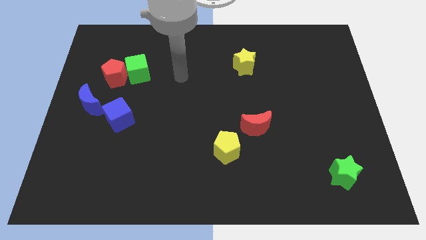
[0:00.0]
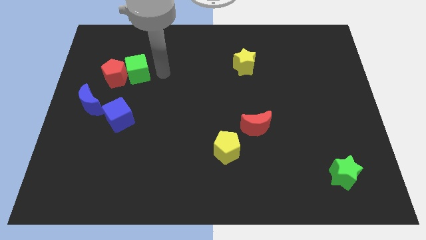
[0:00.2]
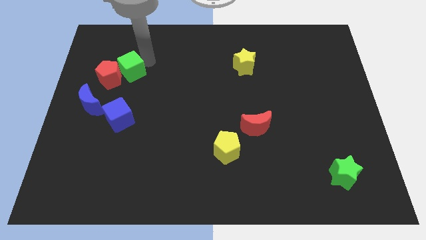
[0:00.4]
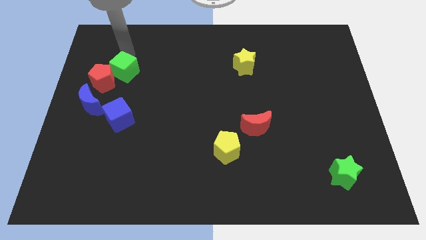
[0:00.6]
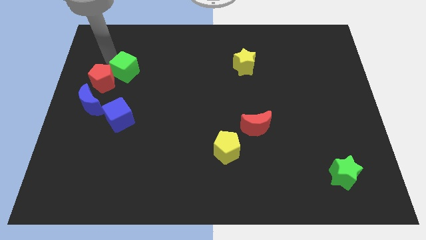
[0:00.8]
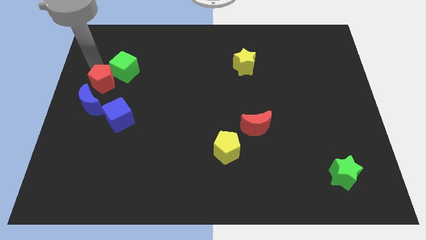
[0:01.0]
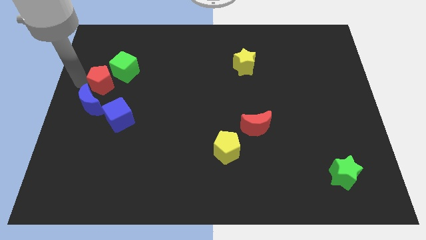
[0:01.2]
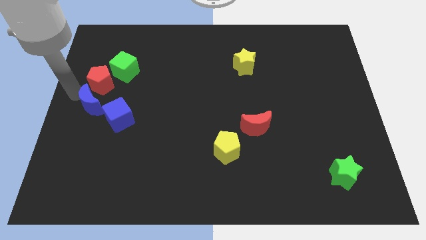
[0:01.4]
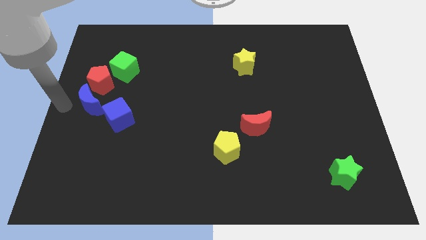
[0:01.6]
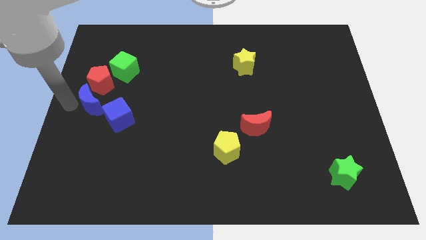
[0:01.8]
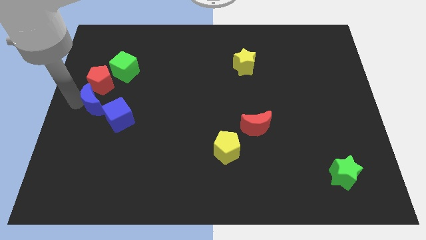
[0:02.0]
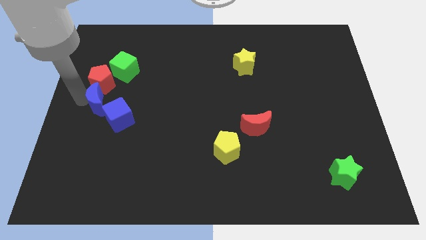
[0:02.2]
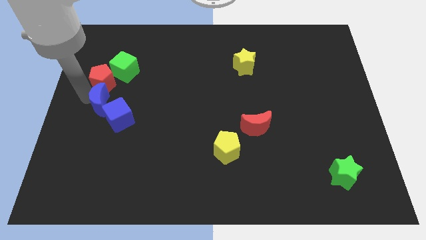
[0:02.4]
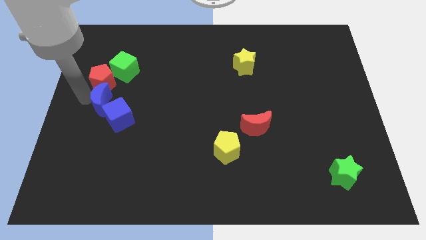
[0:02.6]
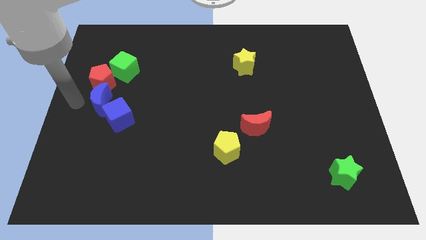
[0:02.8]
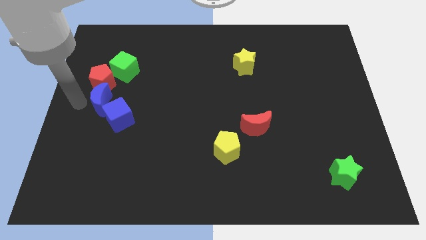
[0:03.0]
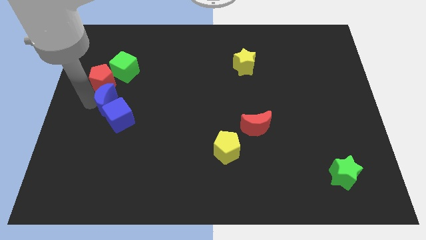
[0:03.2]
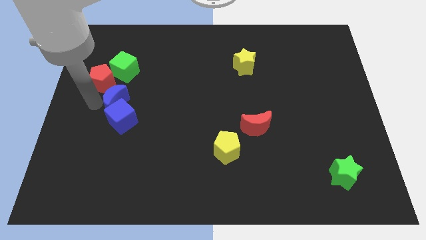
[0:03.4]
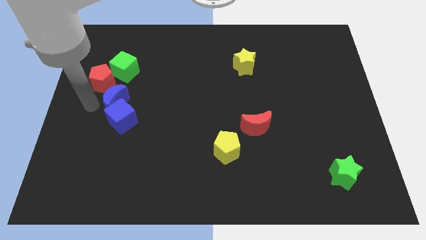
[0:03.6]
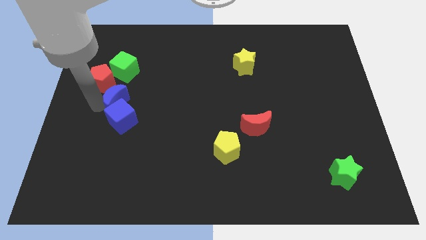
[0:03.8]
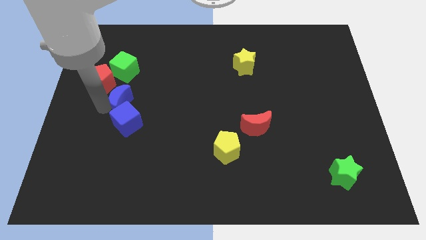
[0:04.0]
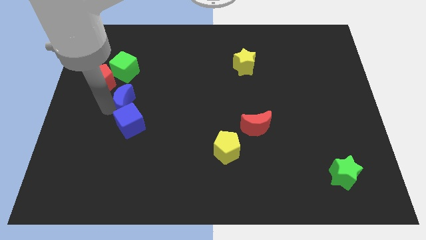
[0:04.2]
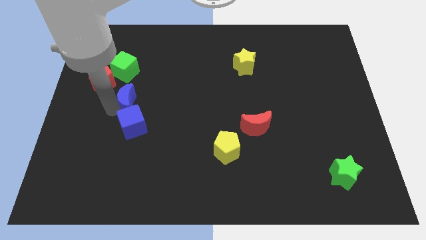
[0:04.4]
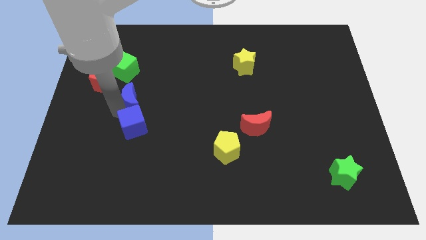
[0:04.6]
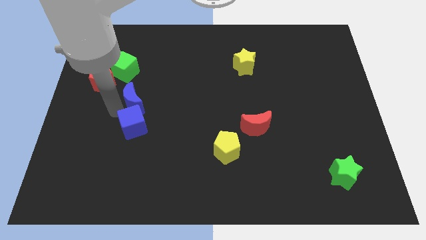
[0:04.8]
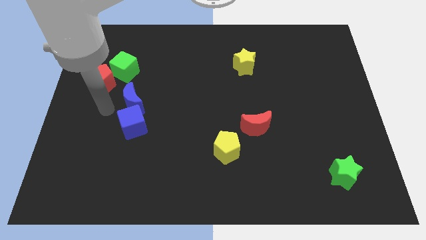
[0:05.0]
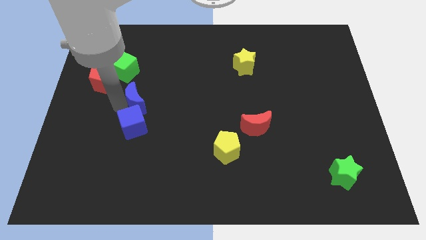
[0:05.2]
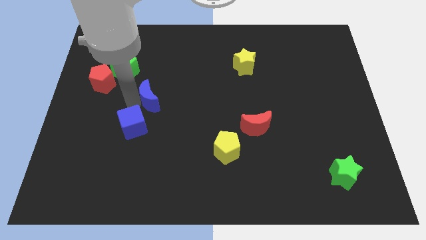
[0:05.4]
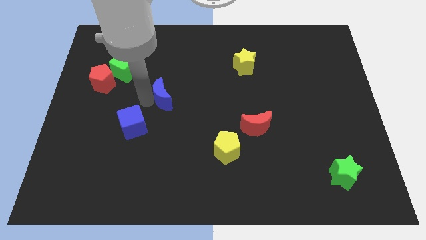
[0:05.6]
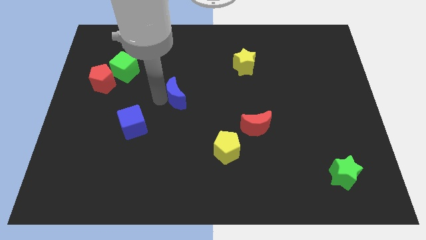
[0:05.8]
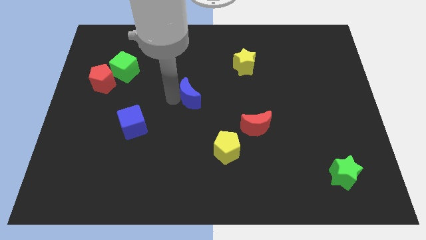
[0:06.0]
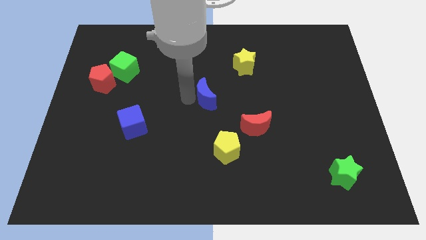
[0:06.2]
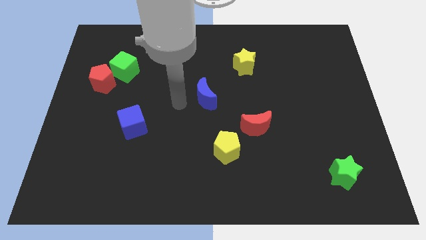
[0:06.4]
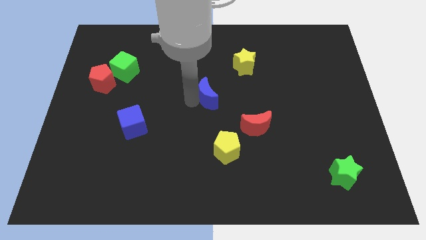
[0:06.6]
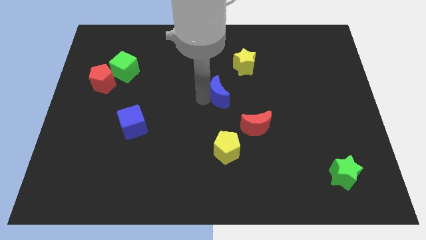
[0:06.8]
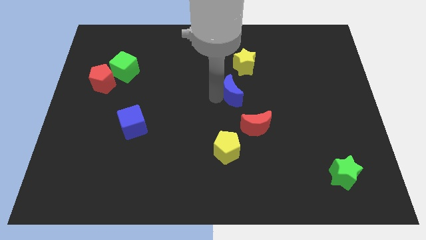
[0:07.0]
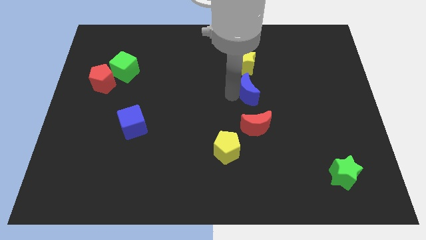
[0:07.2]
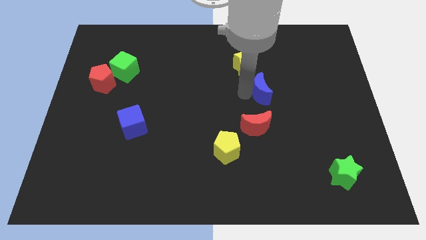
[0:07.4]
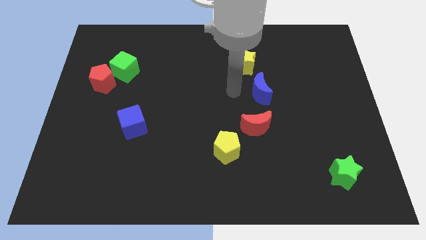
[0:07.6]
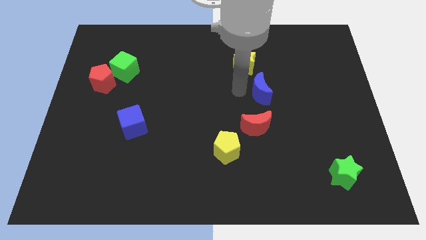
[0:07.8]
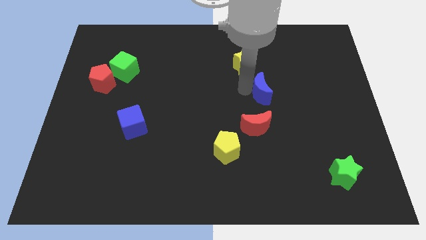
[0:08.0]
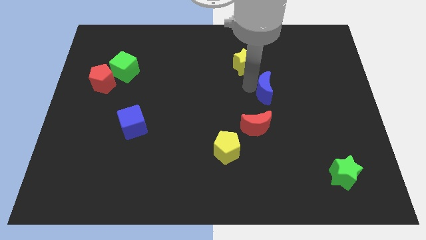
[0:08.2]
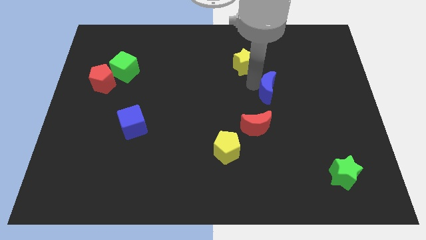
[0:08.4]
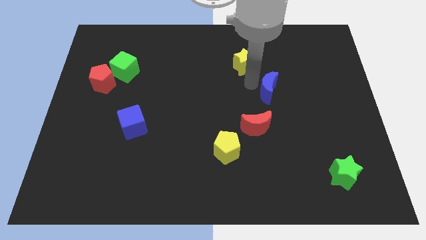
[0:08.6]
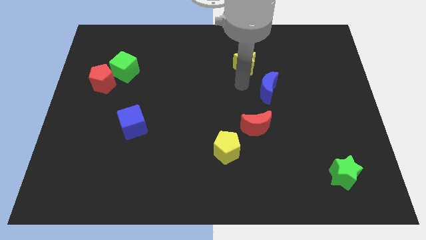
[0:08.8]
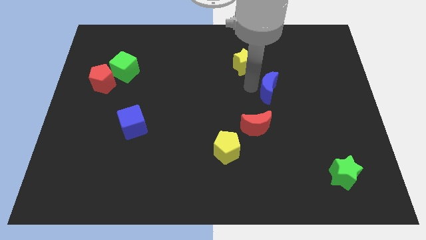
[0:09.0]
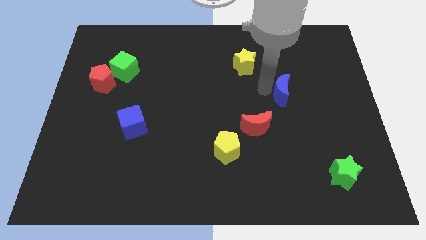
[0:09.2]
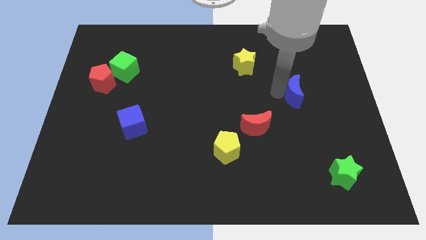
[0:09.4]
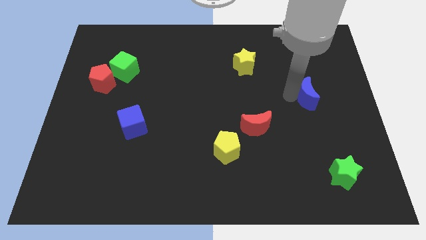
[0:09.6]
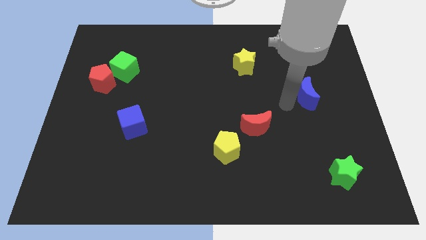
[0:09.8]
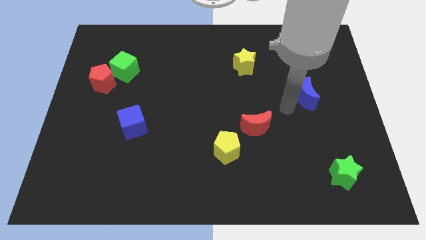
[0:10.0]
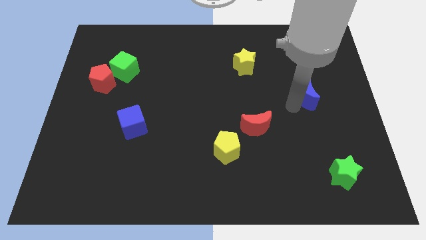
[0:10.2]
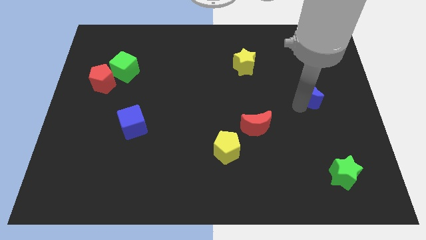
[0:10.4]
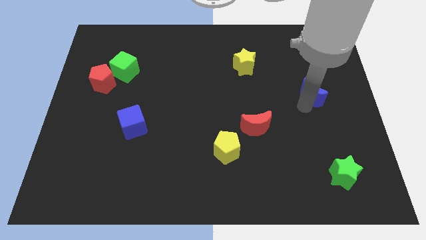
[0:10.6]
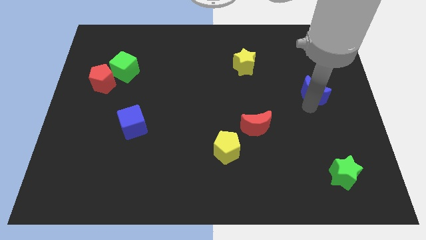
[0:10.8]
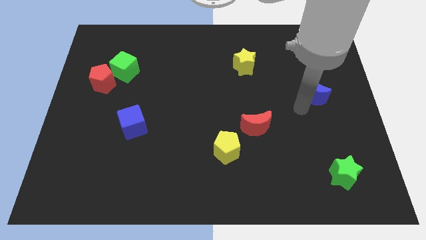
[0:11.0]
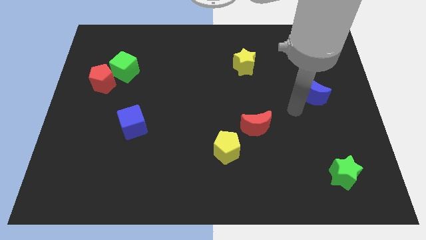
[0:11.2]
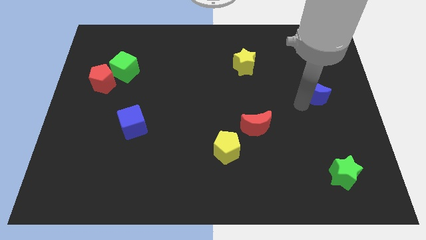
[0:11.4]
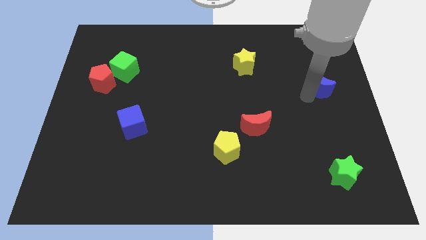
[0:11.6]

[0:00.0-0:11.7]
move the blue moon to the center right
